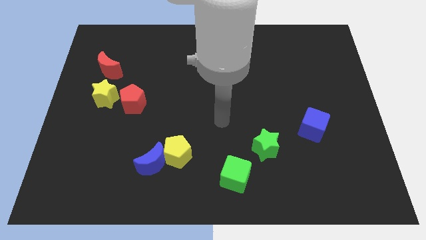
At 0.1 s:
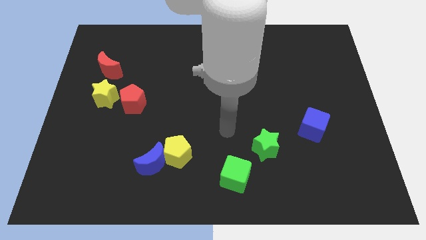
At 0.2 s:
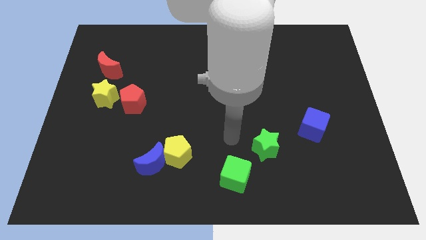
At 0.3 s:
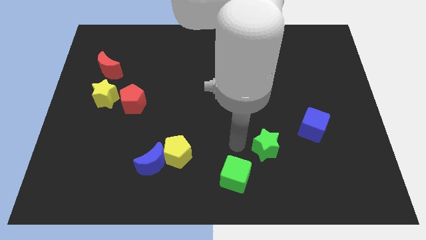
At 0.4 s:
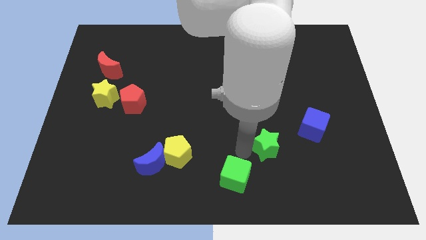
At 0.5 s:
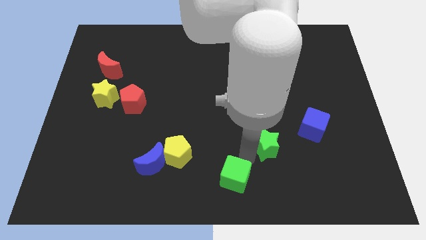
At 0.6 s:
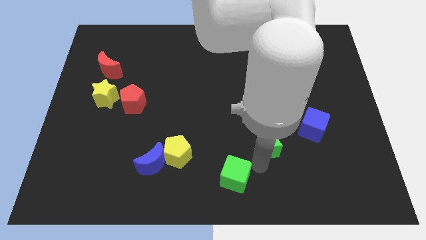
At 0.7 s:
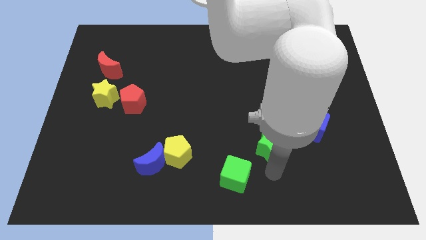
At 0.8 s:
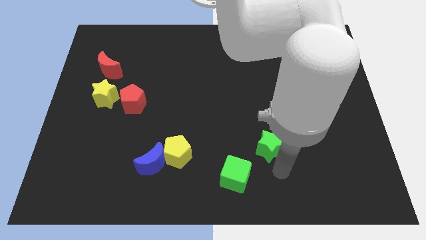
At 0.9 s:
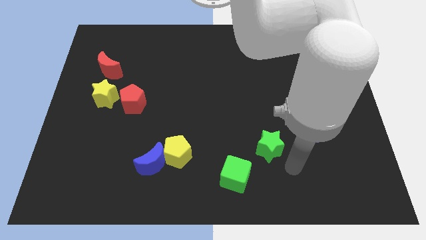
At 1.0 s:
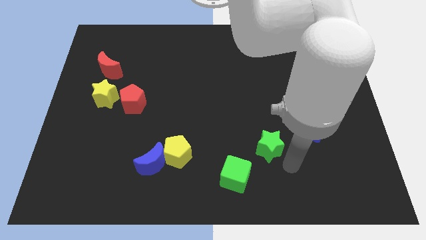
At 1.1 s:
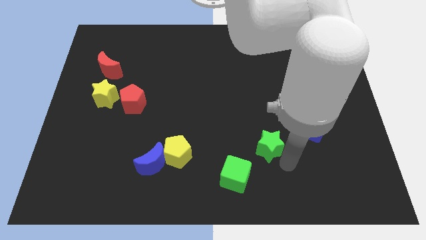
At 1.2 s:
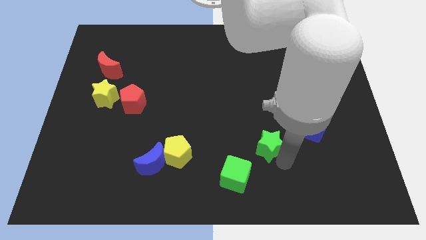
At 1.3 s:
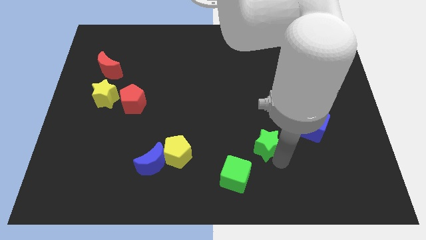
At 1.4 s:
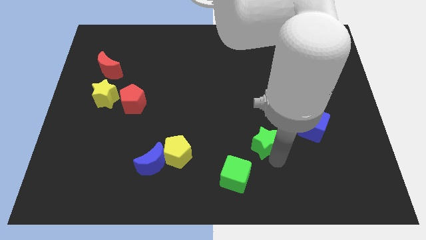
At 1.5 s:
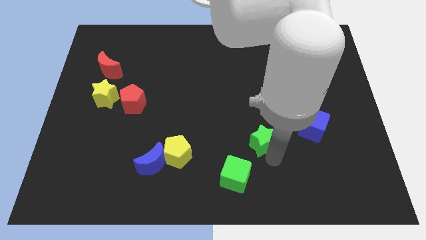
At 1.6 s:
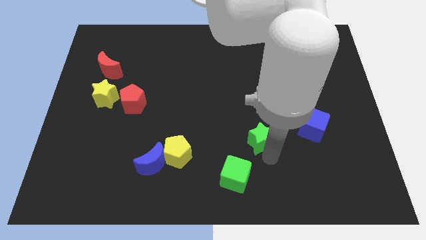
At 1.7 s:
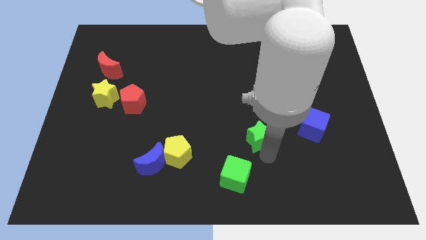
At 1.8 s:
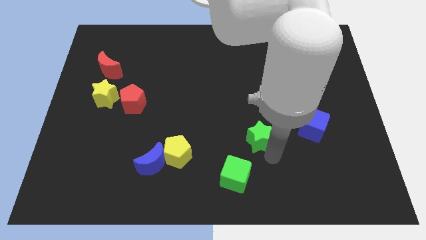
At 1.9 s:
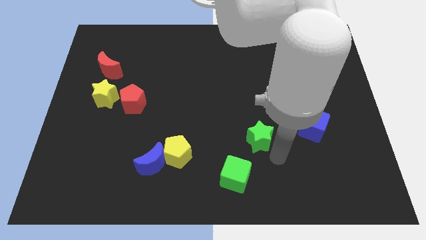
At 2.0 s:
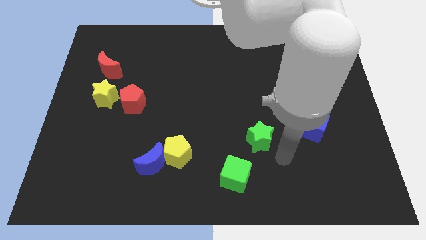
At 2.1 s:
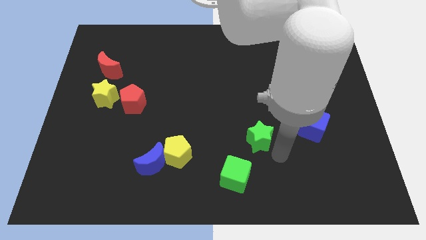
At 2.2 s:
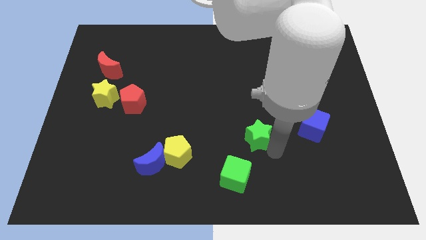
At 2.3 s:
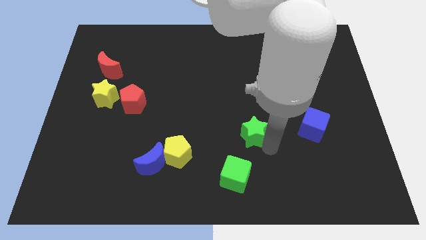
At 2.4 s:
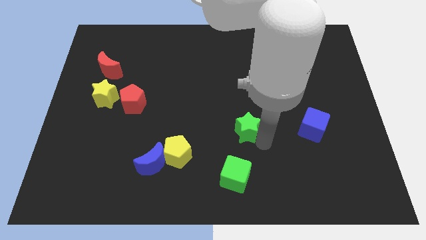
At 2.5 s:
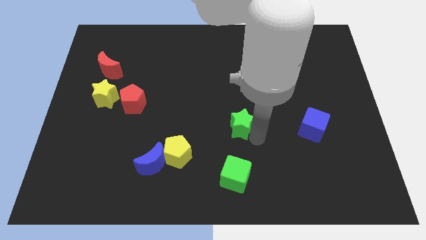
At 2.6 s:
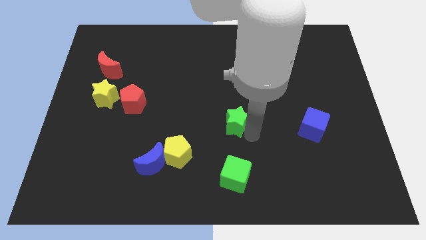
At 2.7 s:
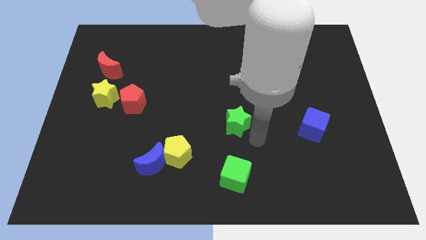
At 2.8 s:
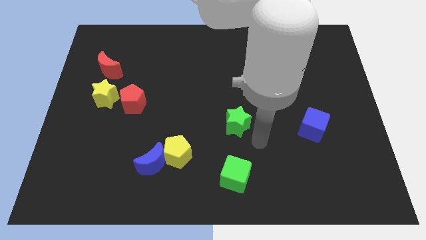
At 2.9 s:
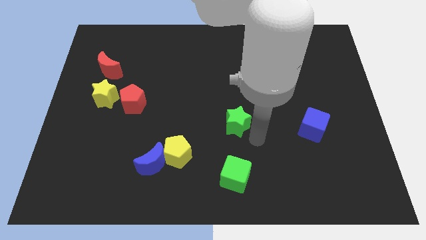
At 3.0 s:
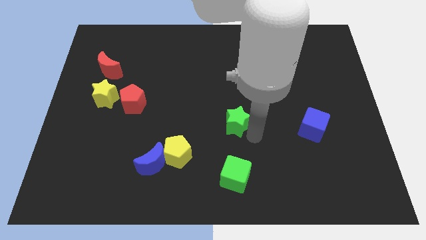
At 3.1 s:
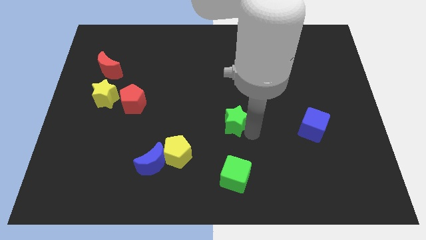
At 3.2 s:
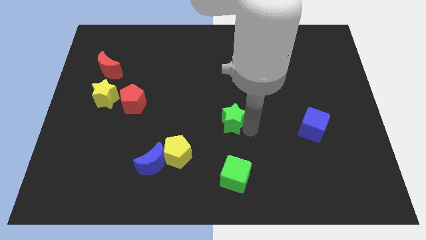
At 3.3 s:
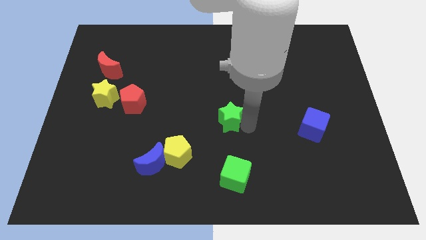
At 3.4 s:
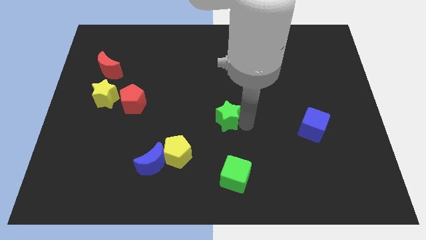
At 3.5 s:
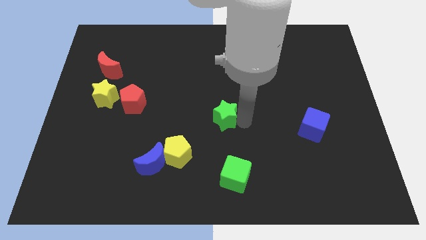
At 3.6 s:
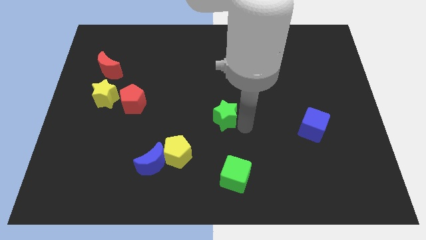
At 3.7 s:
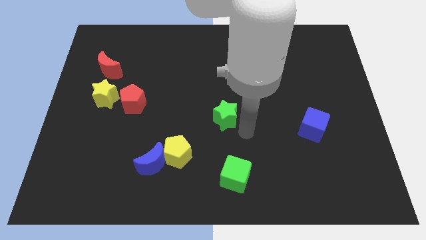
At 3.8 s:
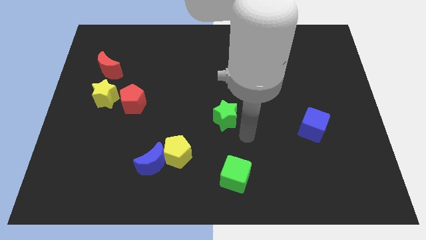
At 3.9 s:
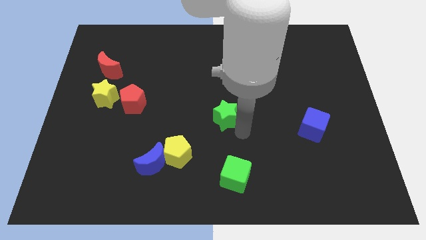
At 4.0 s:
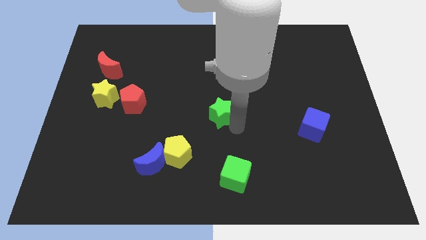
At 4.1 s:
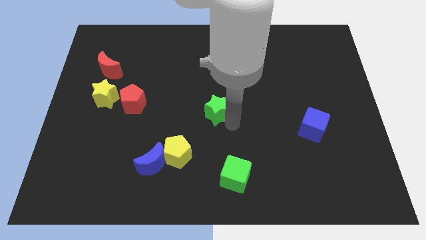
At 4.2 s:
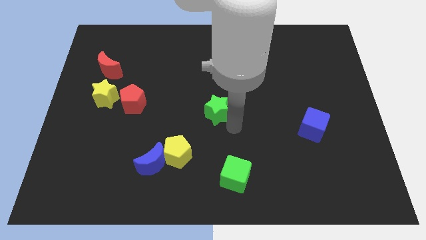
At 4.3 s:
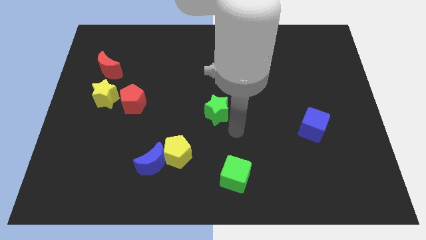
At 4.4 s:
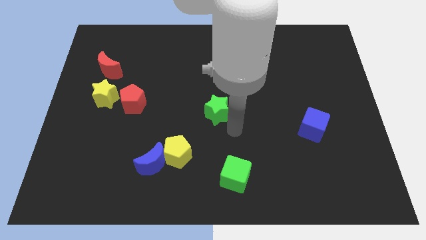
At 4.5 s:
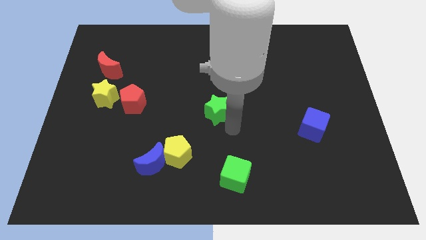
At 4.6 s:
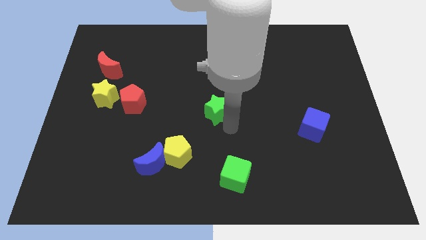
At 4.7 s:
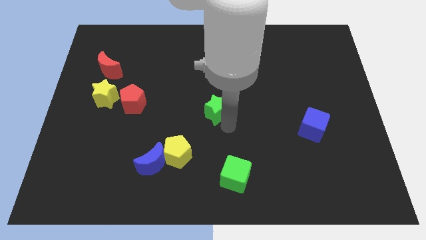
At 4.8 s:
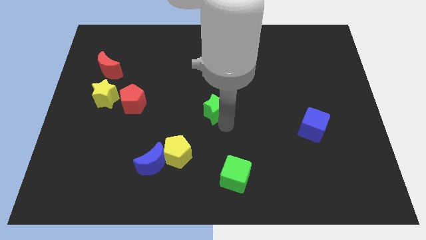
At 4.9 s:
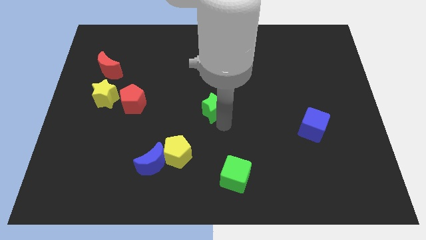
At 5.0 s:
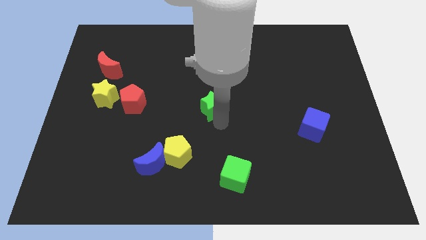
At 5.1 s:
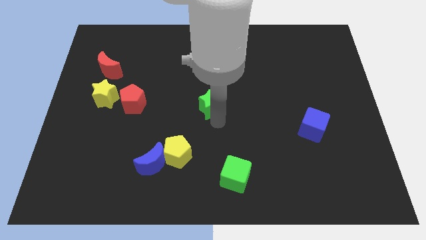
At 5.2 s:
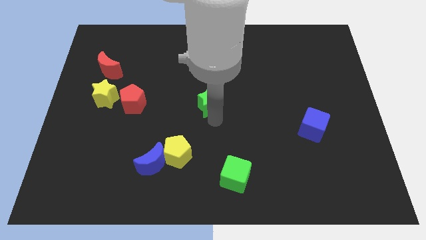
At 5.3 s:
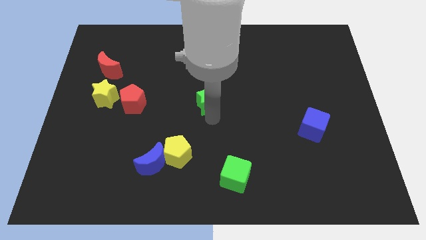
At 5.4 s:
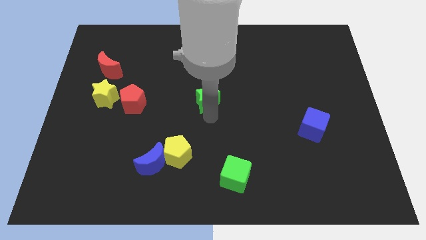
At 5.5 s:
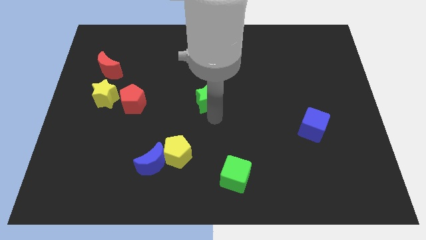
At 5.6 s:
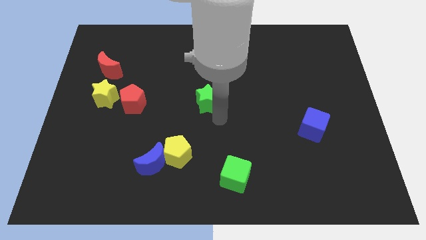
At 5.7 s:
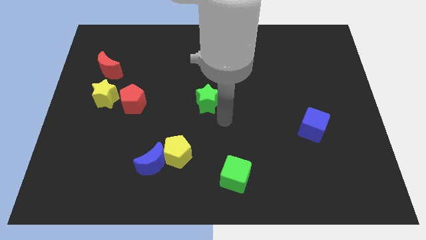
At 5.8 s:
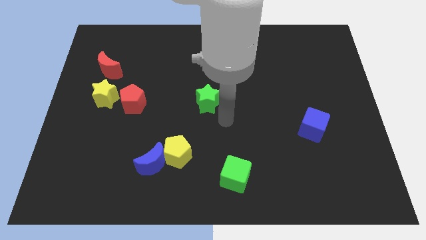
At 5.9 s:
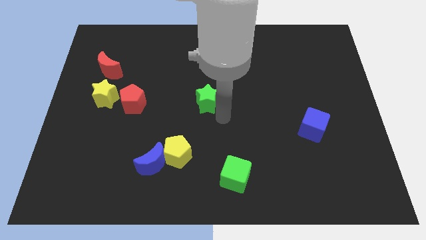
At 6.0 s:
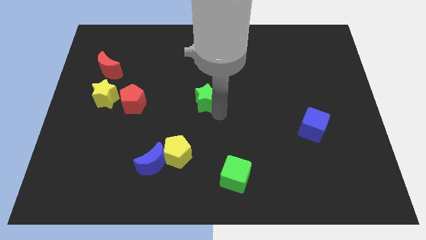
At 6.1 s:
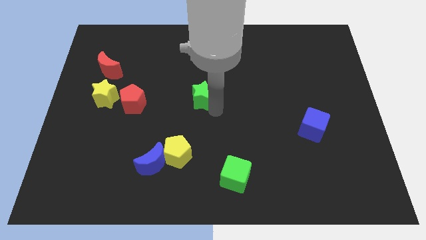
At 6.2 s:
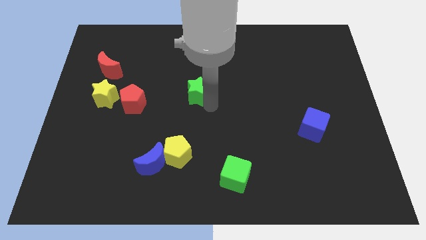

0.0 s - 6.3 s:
slide the green star upwards and then to the left

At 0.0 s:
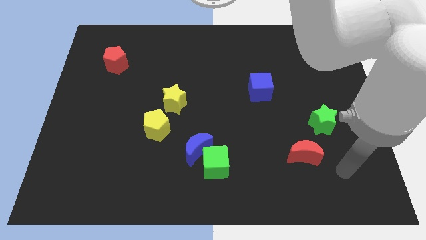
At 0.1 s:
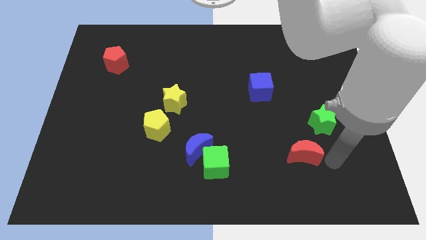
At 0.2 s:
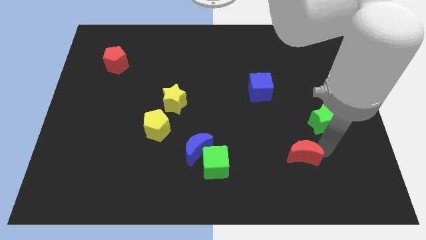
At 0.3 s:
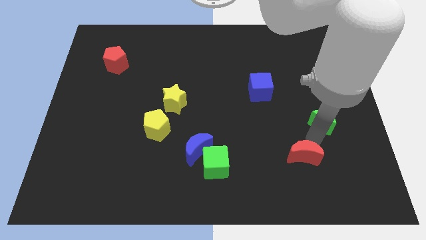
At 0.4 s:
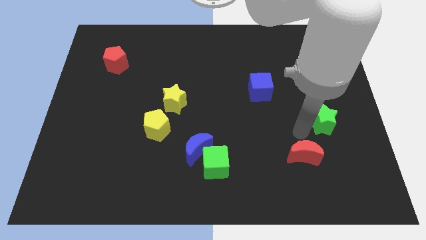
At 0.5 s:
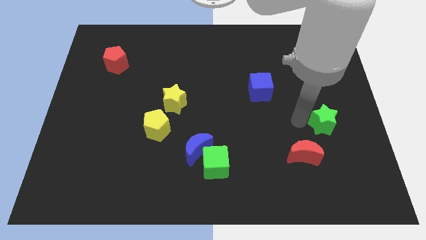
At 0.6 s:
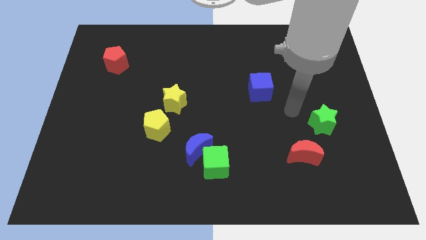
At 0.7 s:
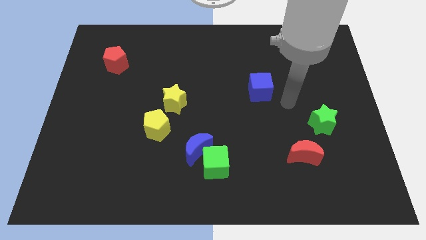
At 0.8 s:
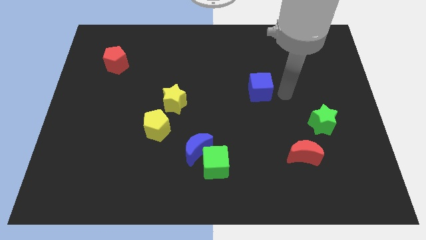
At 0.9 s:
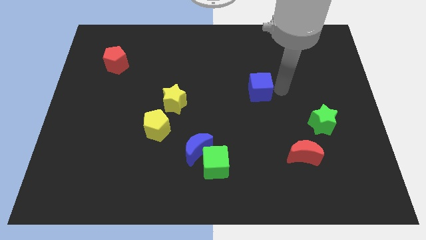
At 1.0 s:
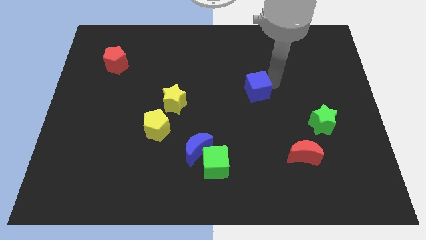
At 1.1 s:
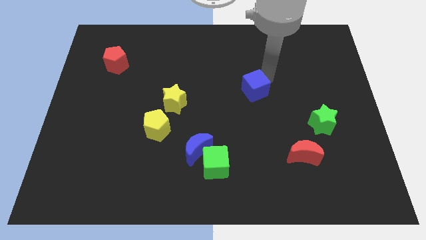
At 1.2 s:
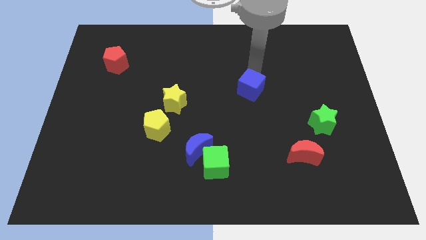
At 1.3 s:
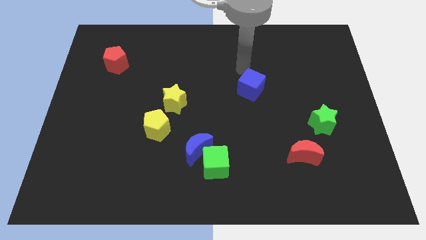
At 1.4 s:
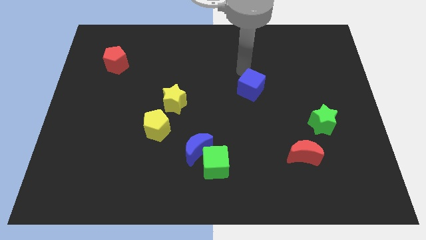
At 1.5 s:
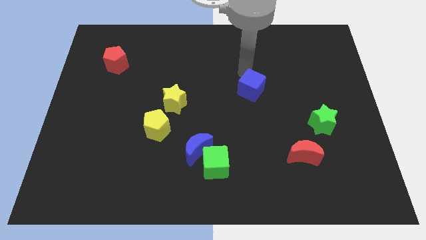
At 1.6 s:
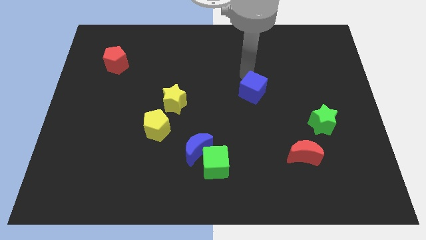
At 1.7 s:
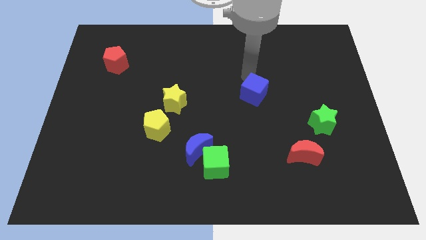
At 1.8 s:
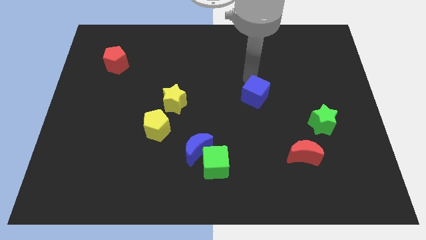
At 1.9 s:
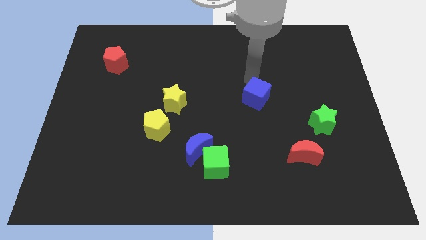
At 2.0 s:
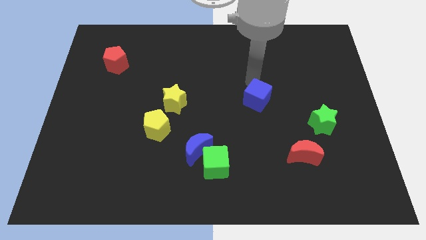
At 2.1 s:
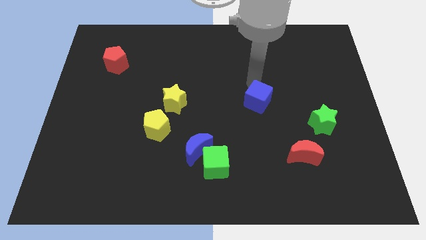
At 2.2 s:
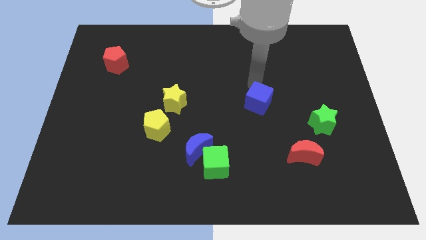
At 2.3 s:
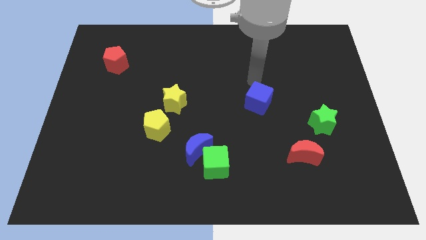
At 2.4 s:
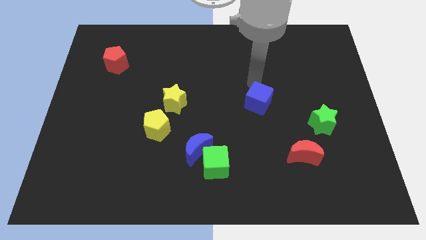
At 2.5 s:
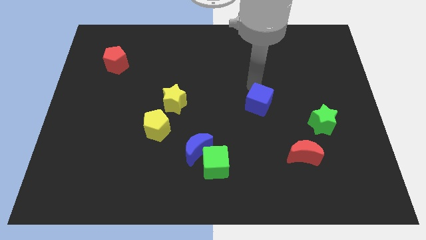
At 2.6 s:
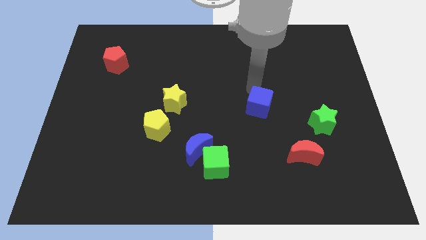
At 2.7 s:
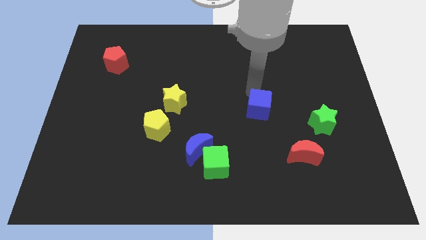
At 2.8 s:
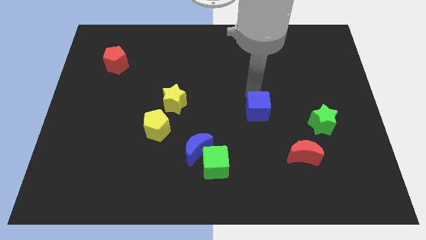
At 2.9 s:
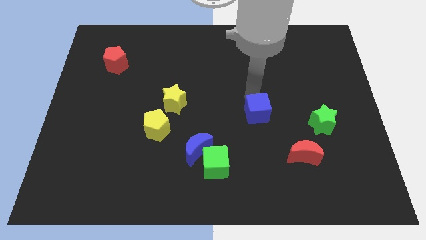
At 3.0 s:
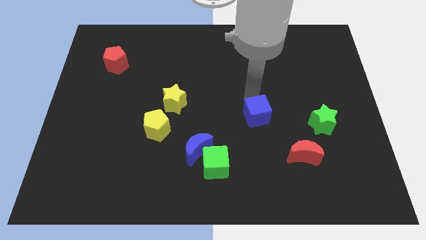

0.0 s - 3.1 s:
push the blue cube down slightly
